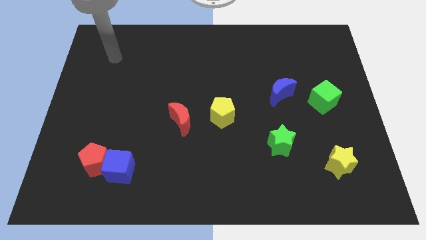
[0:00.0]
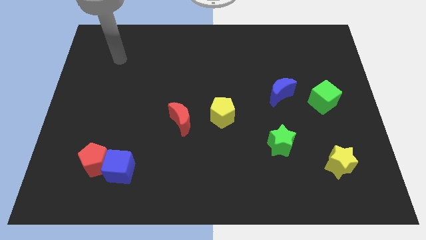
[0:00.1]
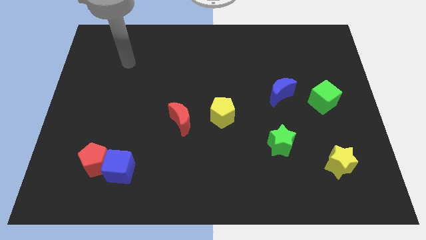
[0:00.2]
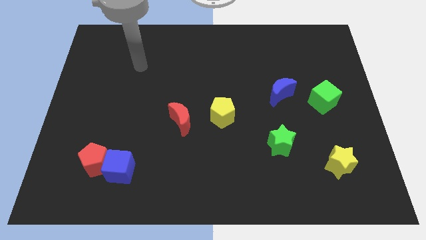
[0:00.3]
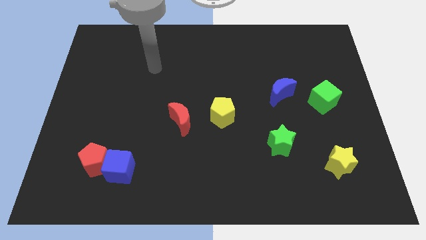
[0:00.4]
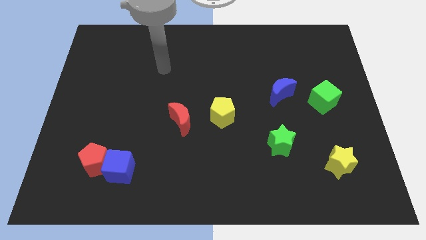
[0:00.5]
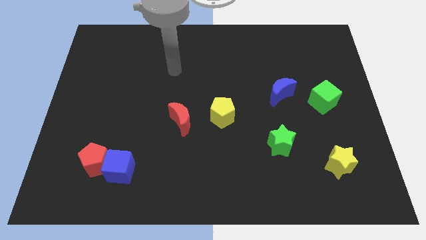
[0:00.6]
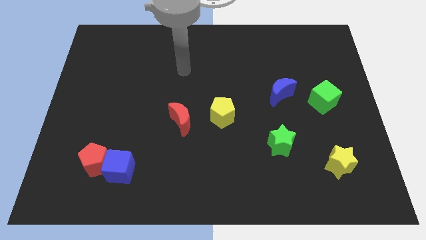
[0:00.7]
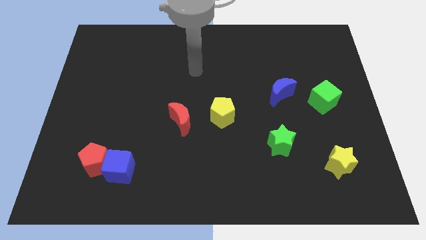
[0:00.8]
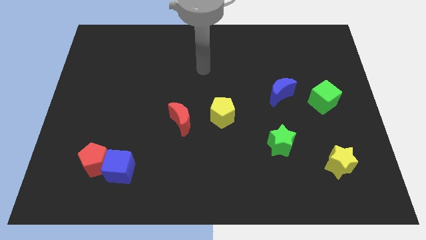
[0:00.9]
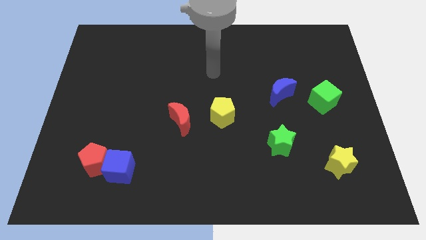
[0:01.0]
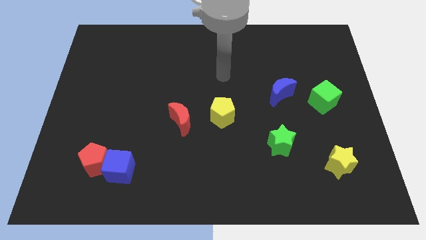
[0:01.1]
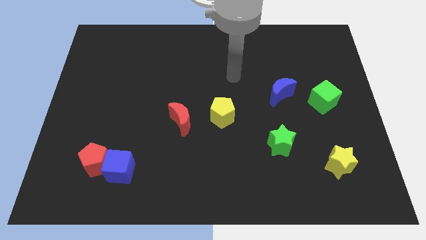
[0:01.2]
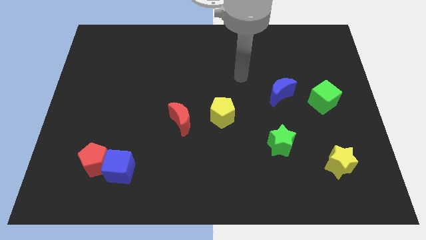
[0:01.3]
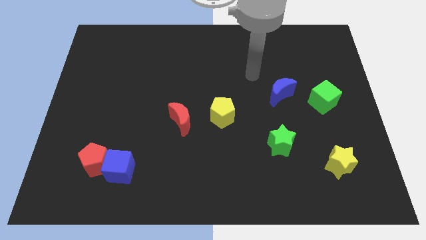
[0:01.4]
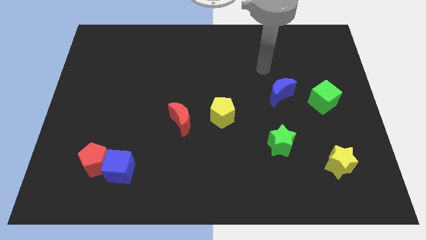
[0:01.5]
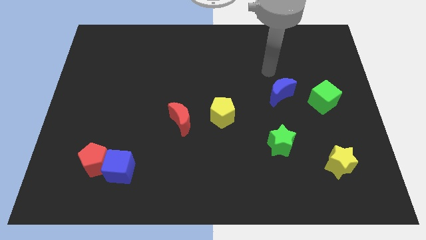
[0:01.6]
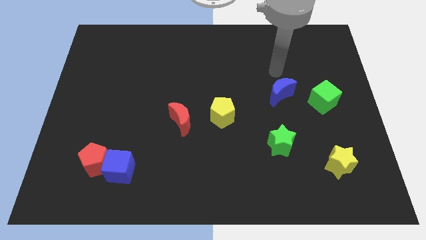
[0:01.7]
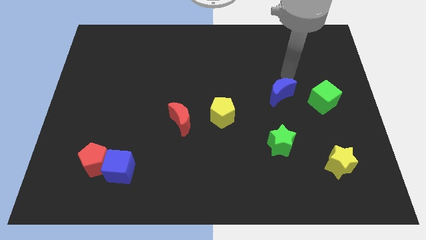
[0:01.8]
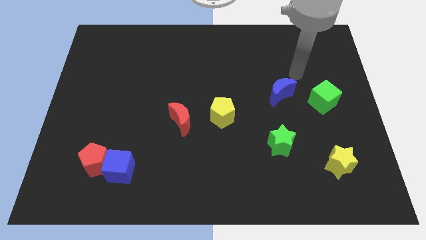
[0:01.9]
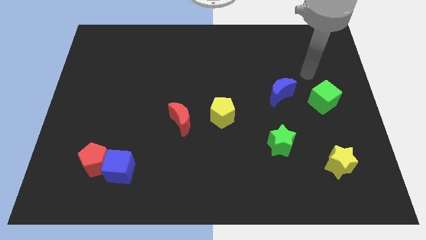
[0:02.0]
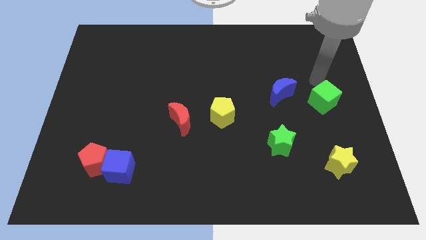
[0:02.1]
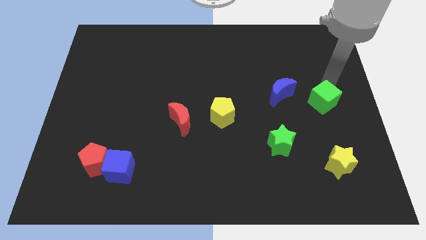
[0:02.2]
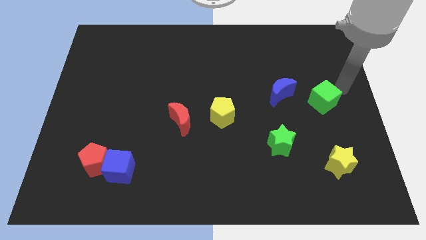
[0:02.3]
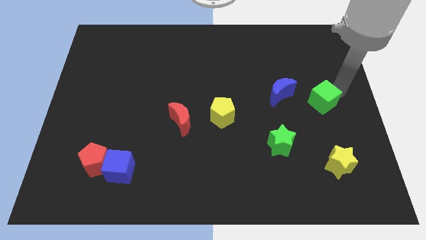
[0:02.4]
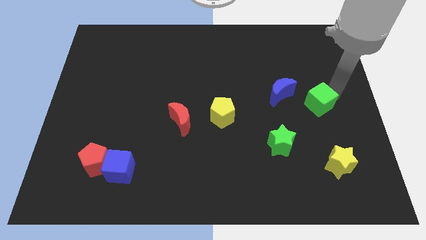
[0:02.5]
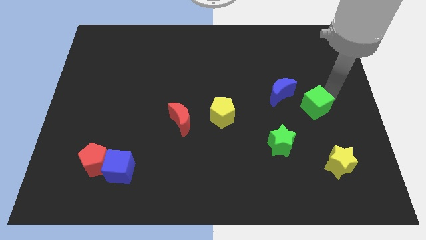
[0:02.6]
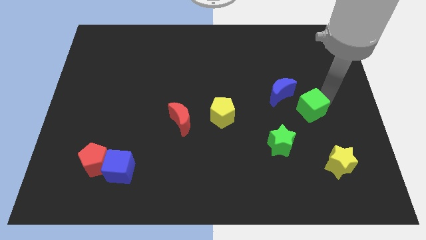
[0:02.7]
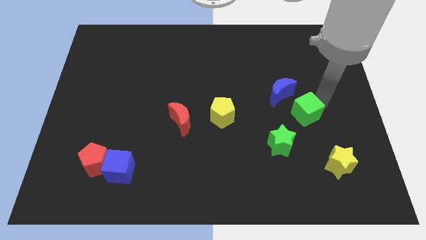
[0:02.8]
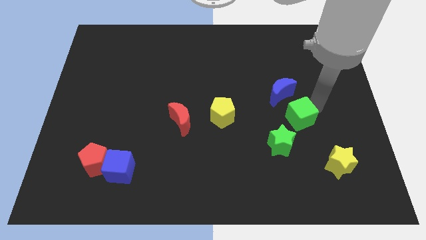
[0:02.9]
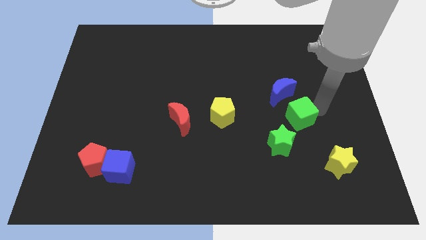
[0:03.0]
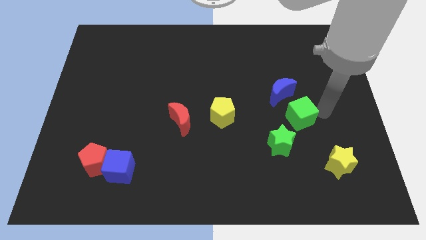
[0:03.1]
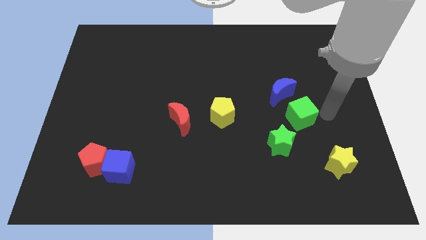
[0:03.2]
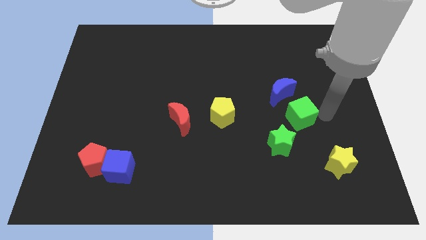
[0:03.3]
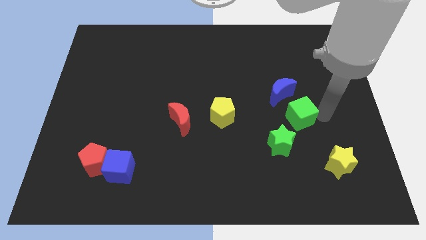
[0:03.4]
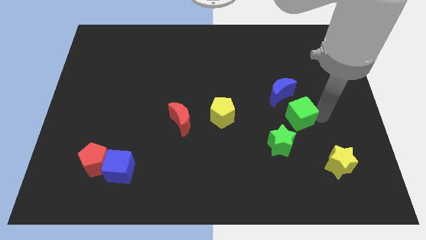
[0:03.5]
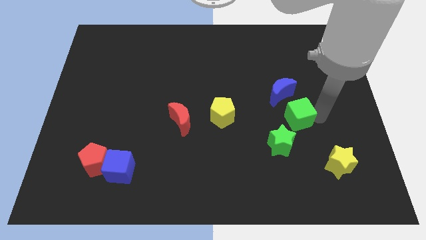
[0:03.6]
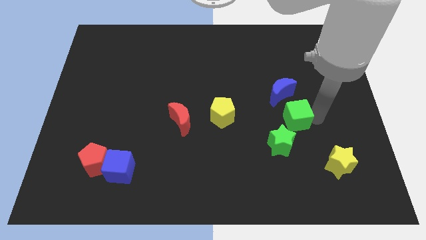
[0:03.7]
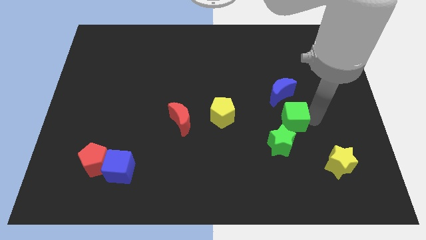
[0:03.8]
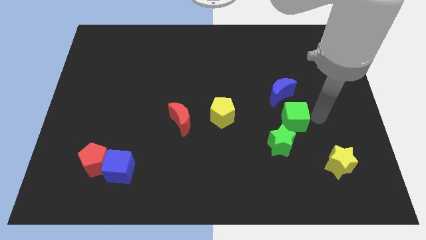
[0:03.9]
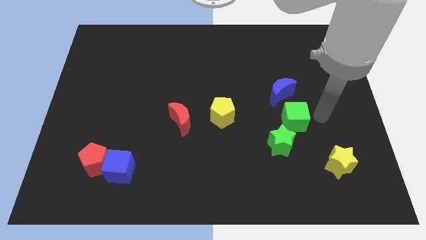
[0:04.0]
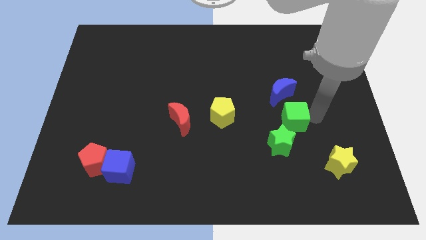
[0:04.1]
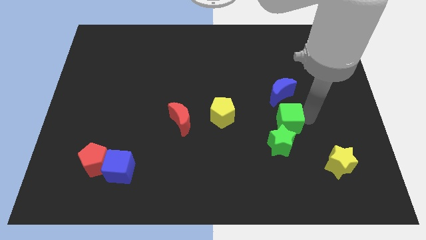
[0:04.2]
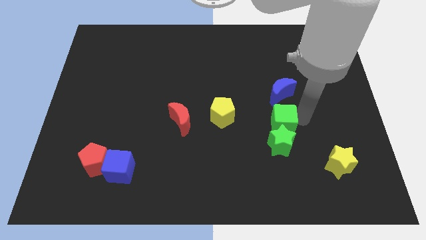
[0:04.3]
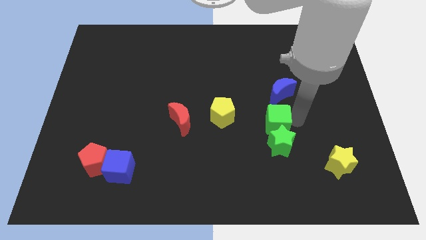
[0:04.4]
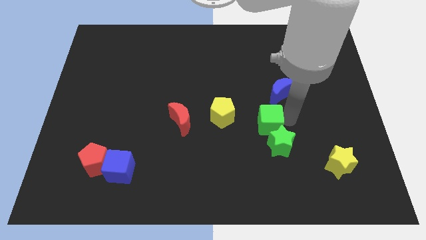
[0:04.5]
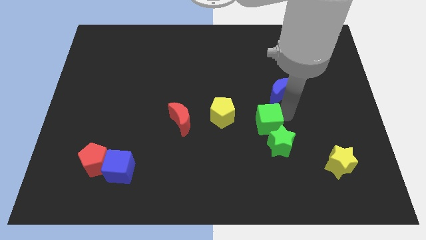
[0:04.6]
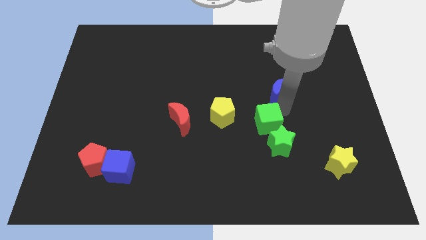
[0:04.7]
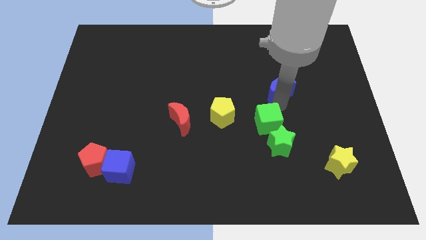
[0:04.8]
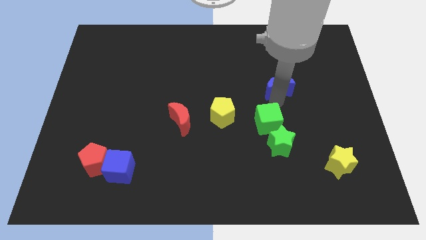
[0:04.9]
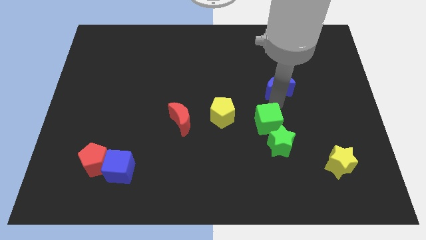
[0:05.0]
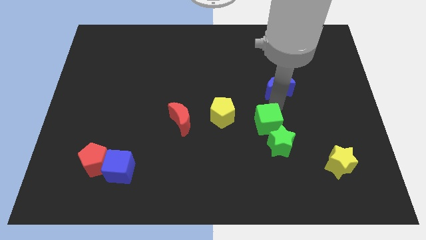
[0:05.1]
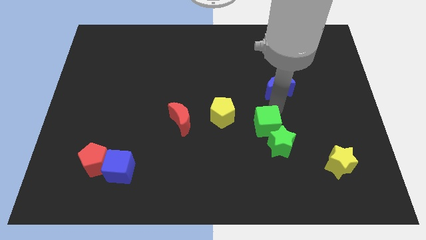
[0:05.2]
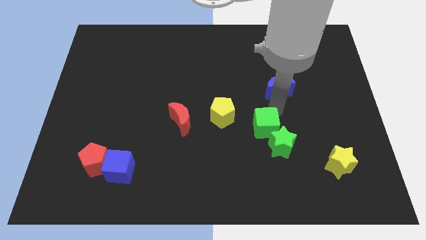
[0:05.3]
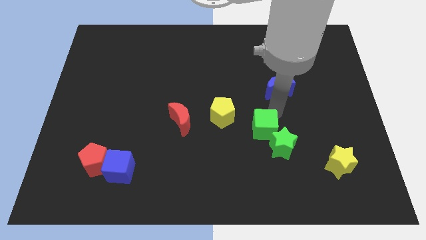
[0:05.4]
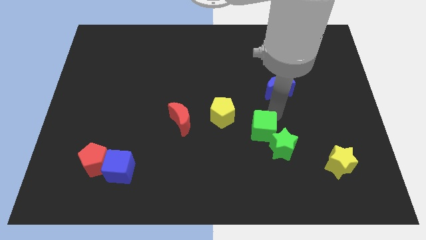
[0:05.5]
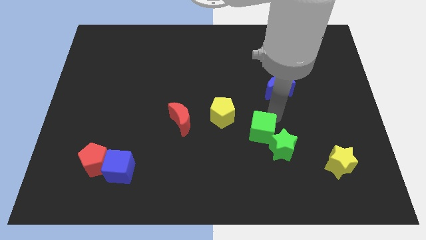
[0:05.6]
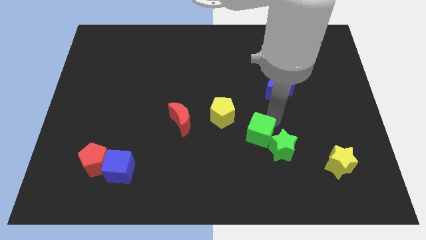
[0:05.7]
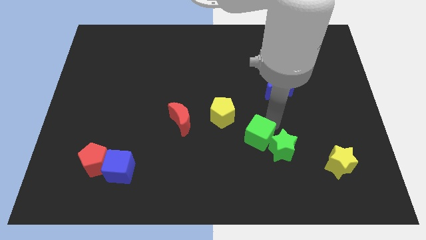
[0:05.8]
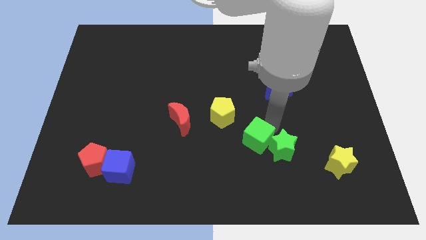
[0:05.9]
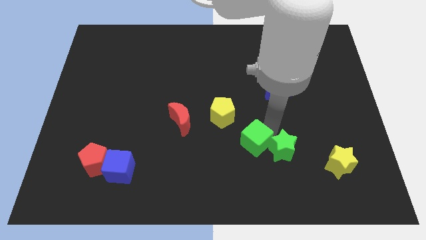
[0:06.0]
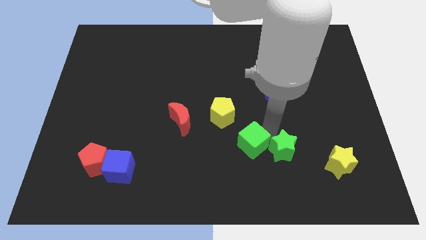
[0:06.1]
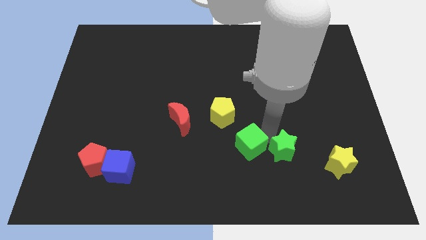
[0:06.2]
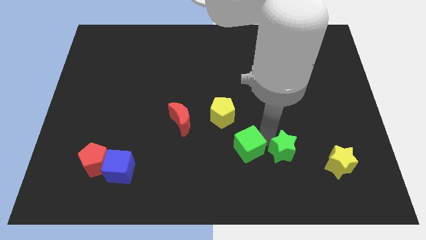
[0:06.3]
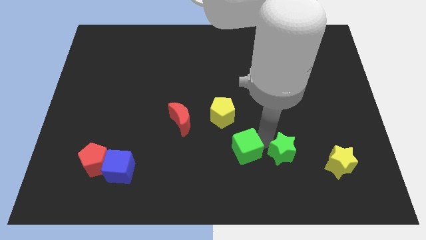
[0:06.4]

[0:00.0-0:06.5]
move the green cube to the bottom of the yellow pentagon
